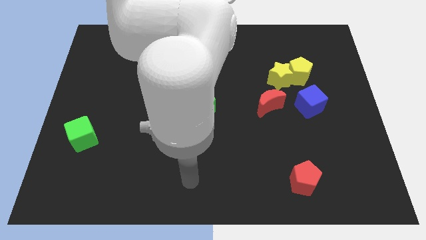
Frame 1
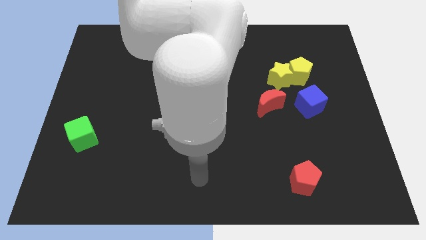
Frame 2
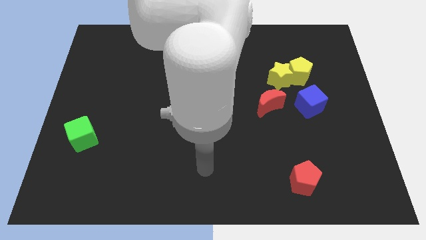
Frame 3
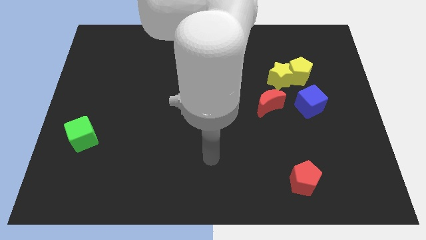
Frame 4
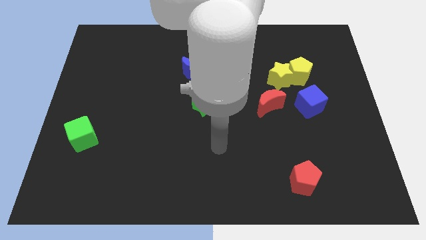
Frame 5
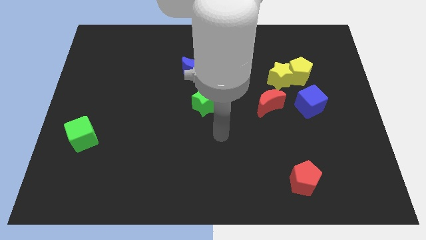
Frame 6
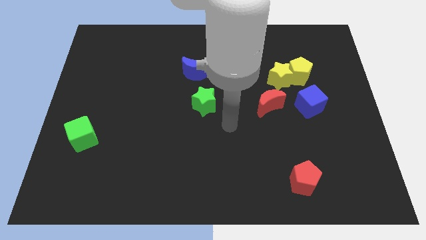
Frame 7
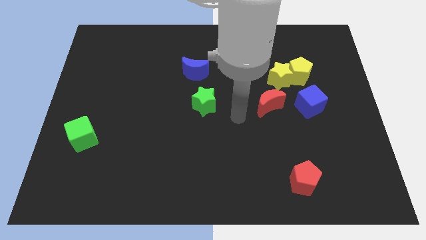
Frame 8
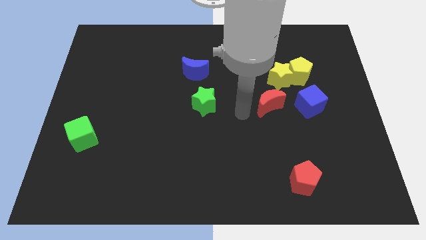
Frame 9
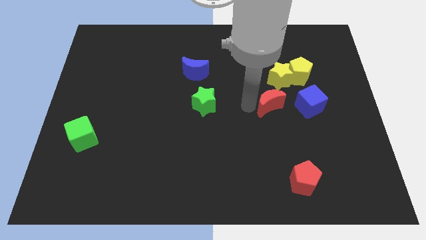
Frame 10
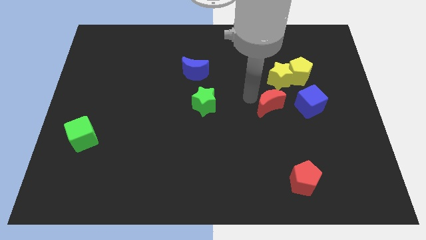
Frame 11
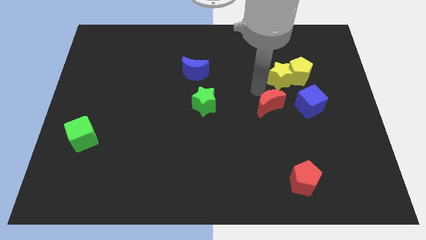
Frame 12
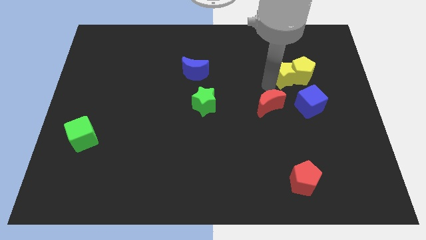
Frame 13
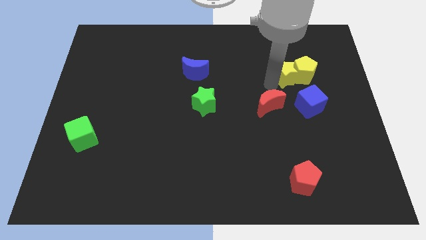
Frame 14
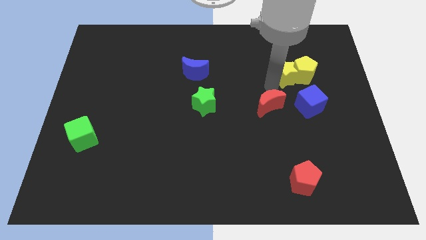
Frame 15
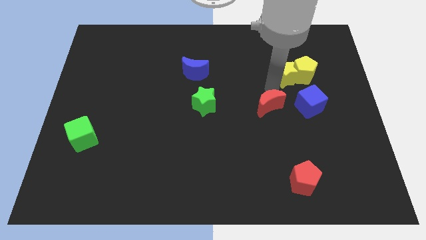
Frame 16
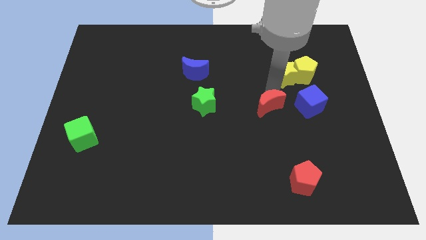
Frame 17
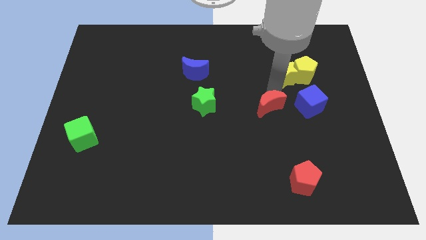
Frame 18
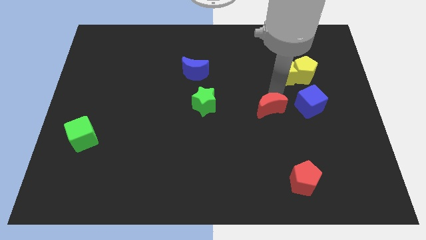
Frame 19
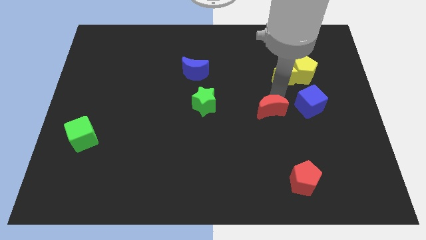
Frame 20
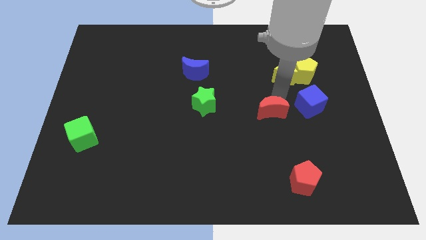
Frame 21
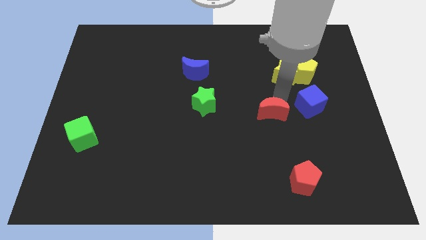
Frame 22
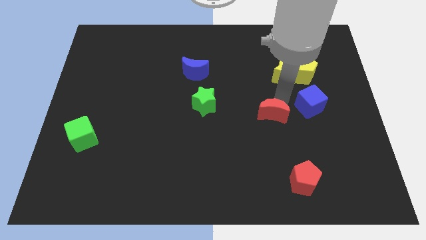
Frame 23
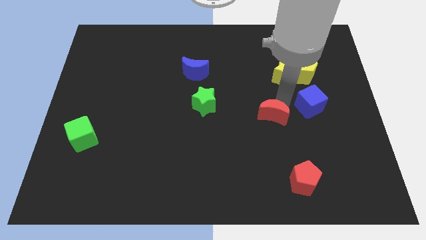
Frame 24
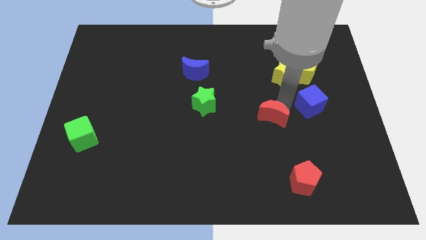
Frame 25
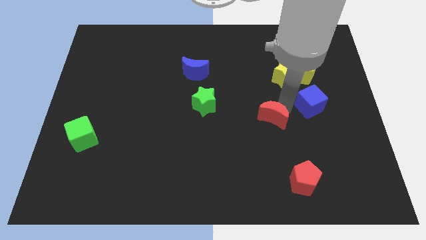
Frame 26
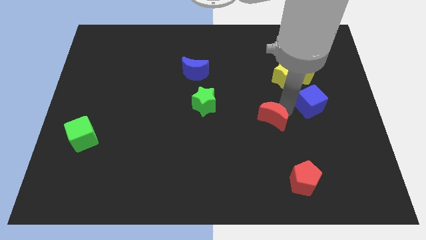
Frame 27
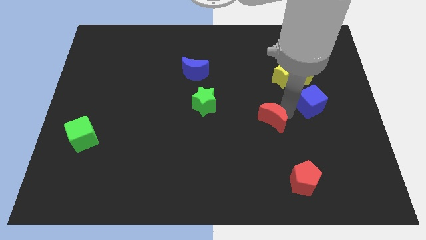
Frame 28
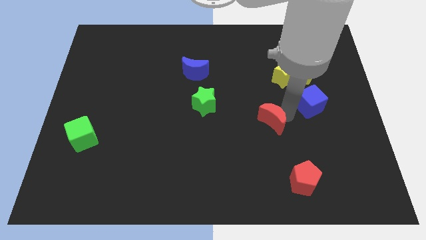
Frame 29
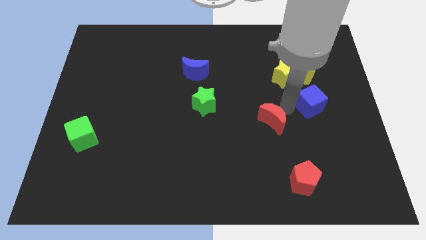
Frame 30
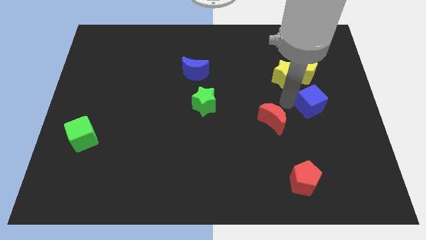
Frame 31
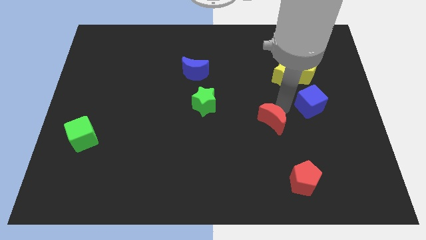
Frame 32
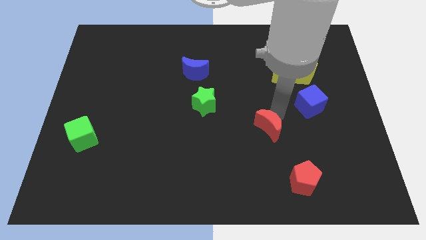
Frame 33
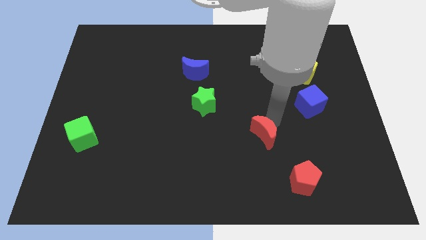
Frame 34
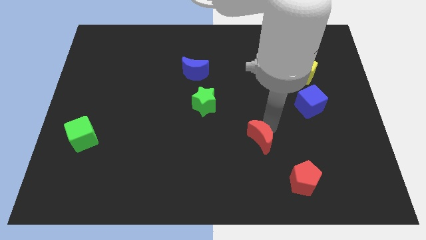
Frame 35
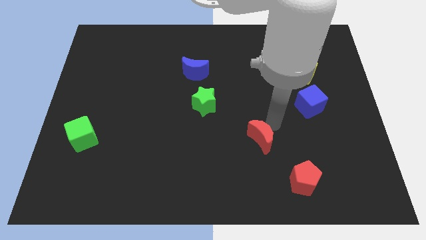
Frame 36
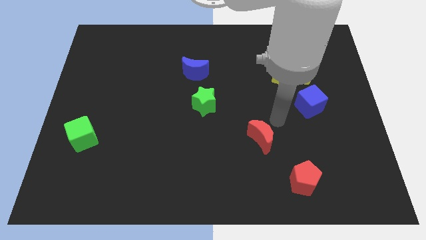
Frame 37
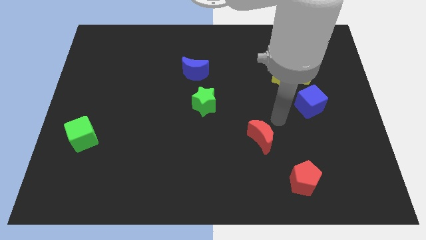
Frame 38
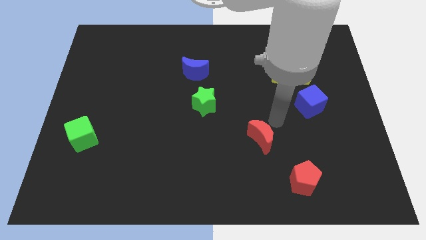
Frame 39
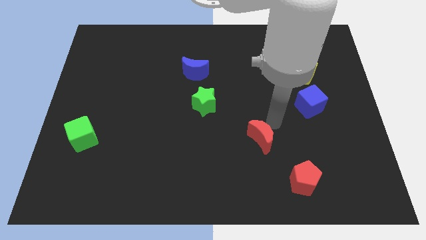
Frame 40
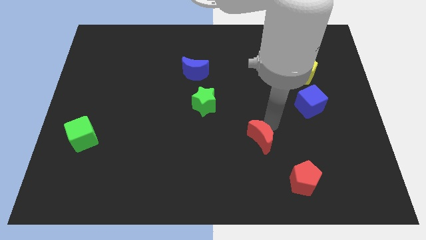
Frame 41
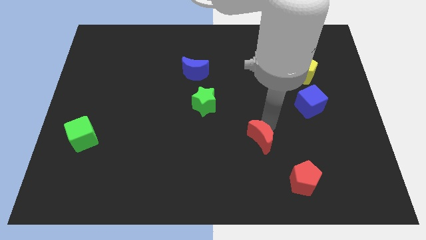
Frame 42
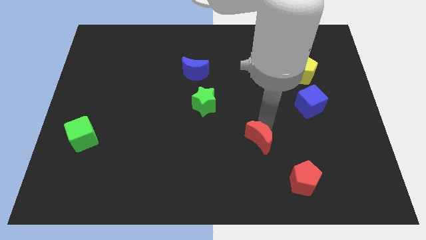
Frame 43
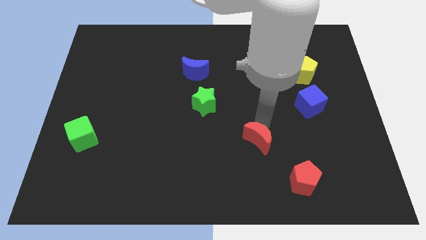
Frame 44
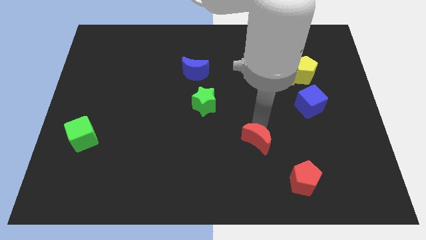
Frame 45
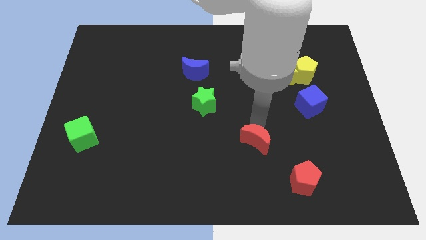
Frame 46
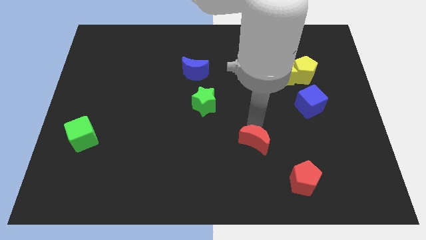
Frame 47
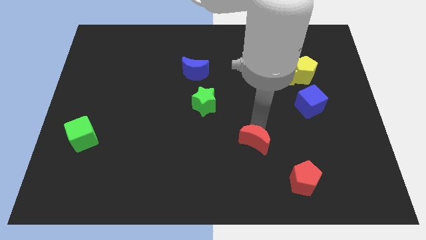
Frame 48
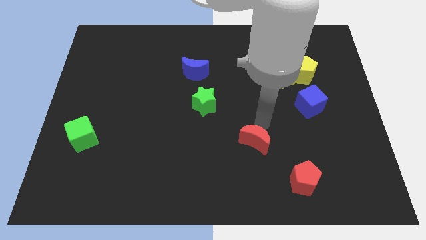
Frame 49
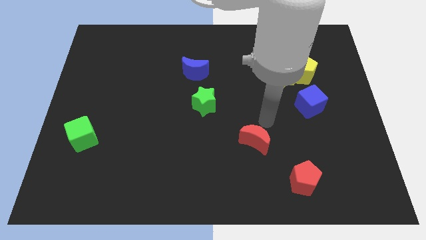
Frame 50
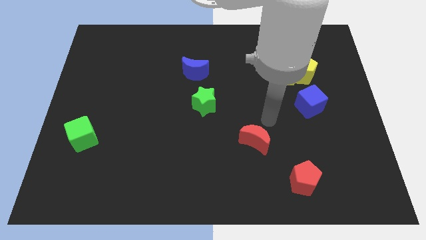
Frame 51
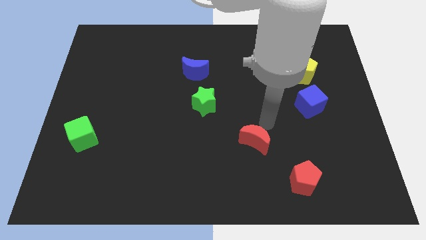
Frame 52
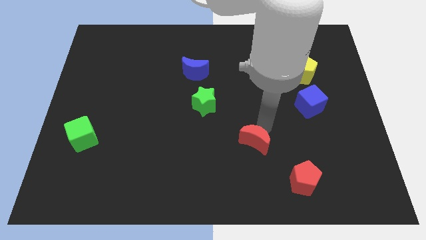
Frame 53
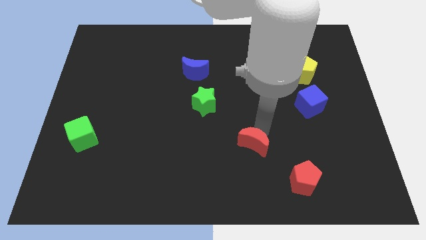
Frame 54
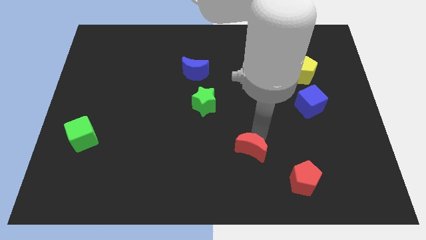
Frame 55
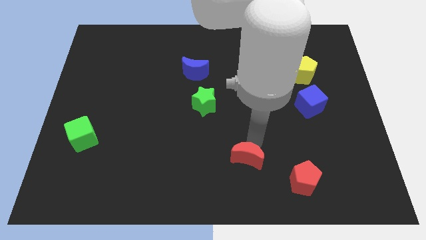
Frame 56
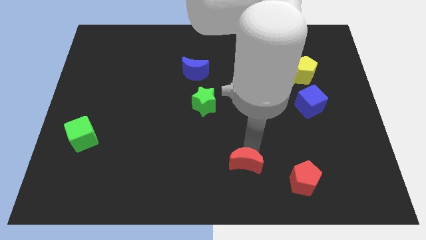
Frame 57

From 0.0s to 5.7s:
move the red moon to the bottom

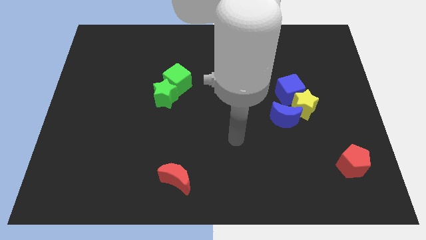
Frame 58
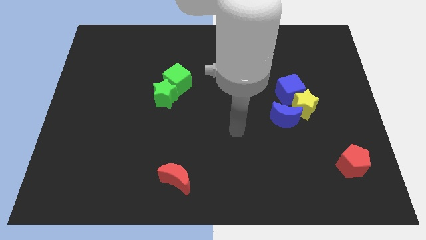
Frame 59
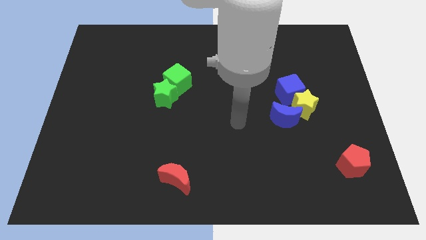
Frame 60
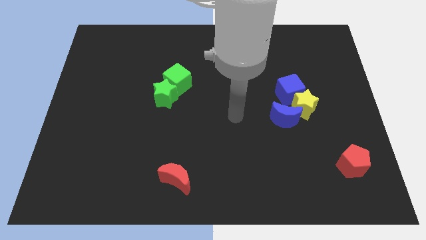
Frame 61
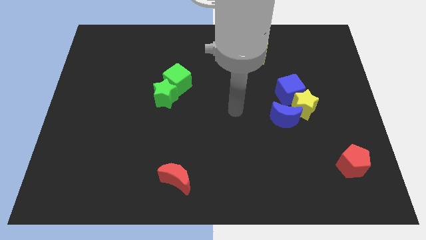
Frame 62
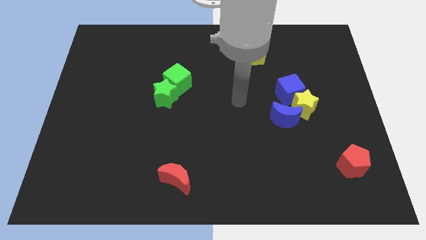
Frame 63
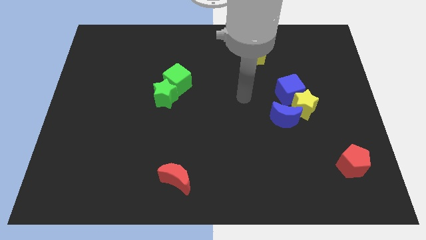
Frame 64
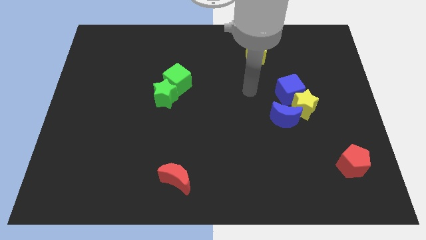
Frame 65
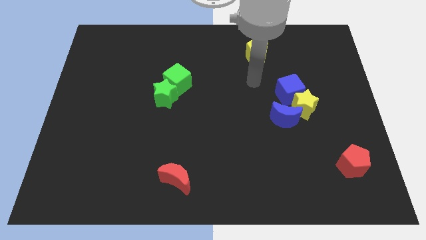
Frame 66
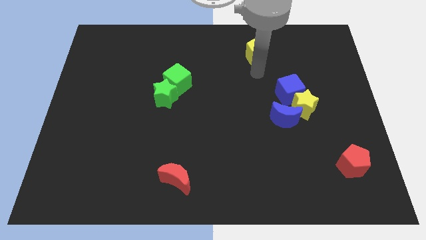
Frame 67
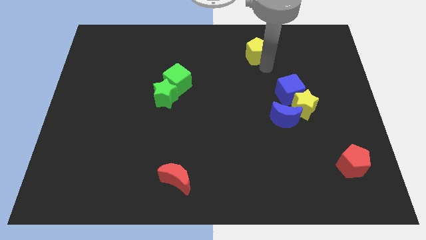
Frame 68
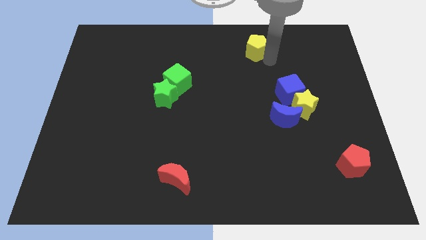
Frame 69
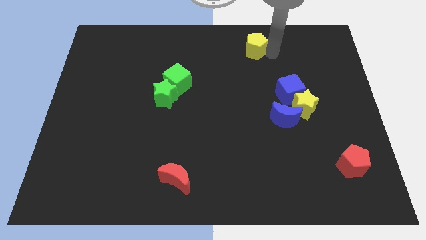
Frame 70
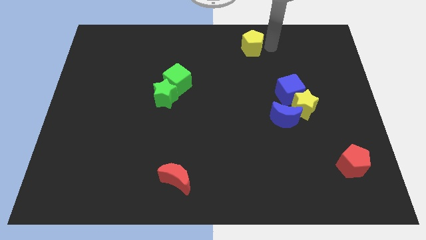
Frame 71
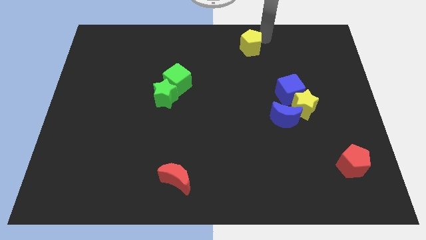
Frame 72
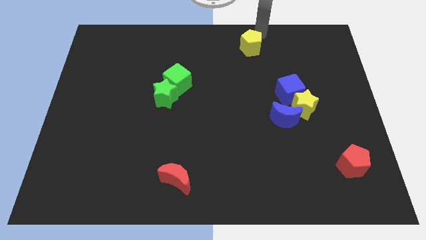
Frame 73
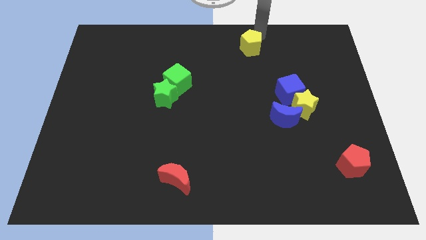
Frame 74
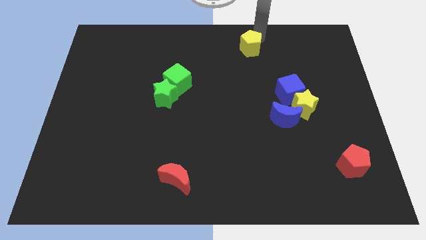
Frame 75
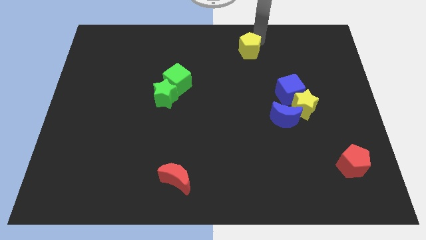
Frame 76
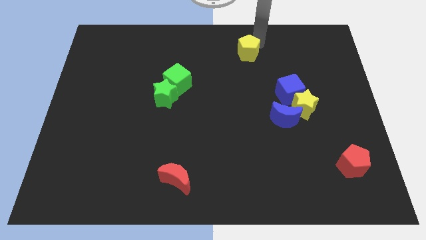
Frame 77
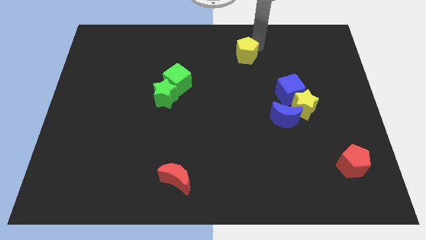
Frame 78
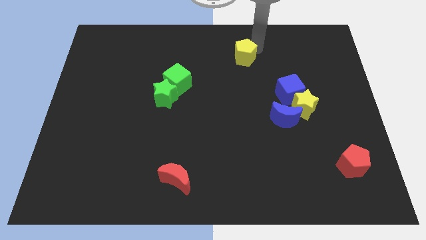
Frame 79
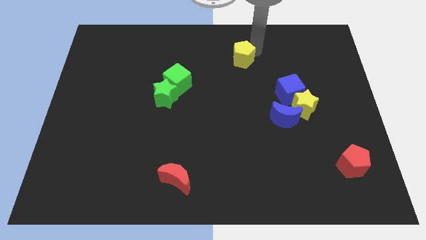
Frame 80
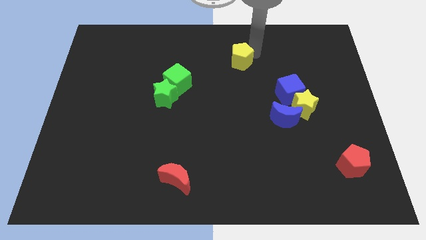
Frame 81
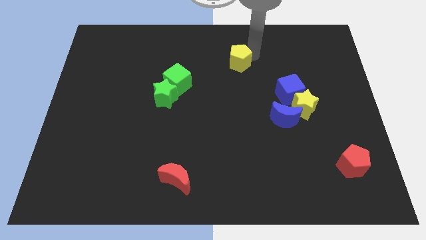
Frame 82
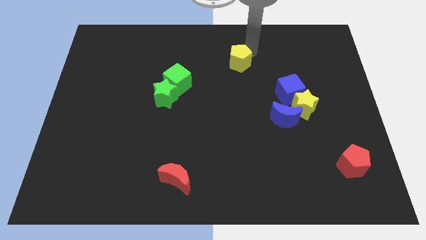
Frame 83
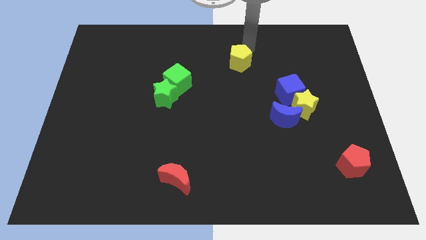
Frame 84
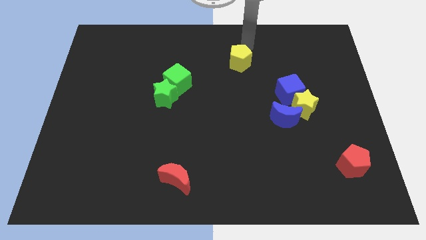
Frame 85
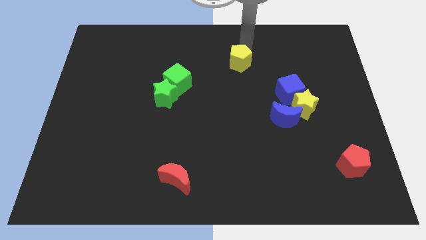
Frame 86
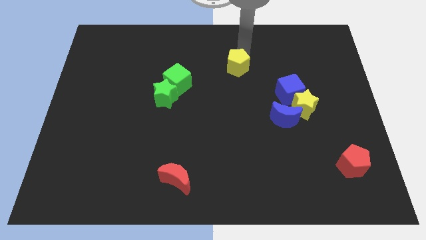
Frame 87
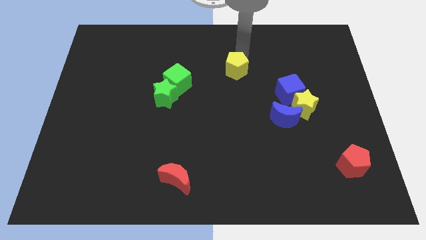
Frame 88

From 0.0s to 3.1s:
slide the yellow pentagon to the center of the board
